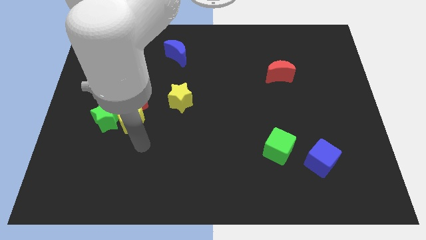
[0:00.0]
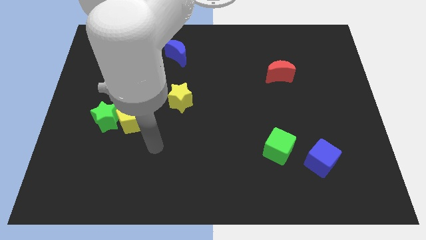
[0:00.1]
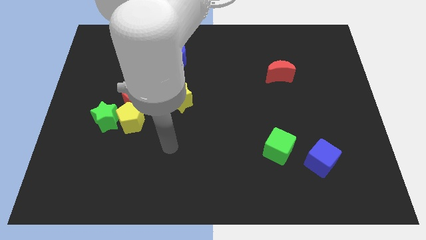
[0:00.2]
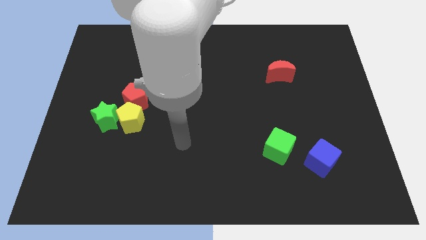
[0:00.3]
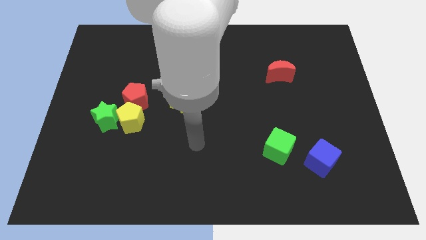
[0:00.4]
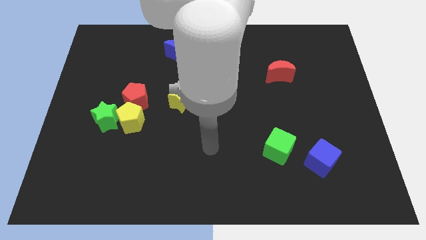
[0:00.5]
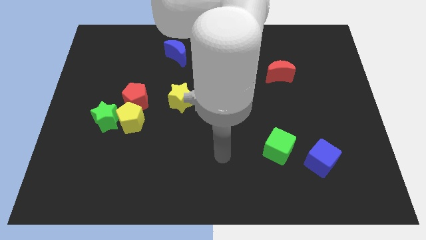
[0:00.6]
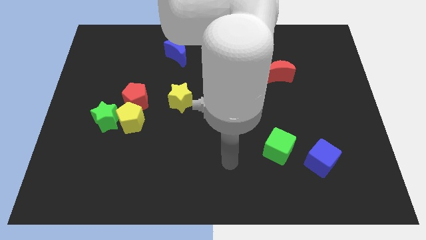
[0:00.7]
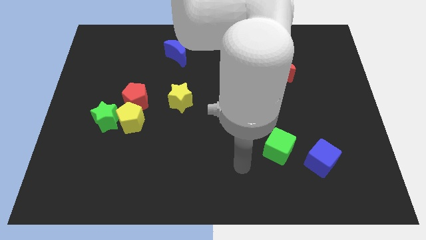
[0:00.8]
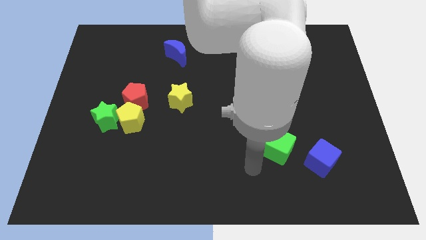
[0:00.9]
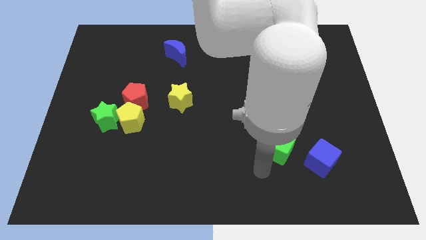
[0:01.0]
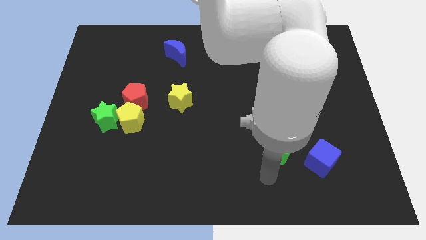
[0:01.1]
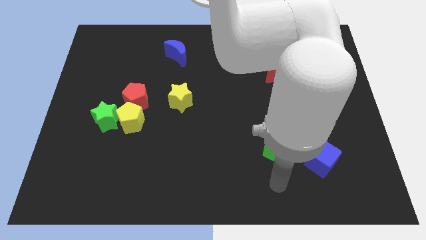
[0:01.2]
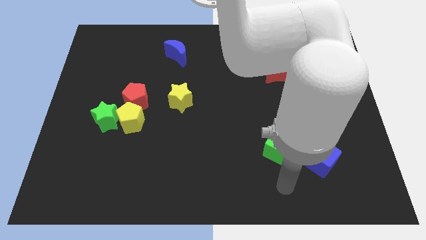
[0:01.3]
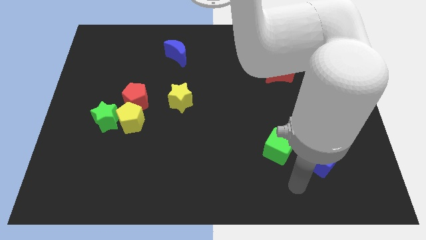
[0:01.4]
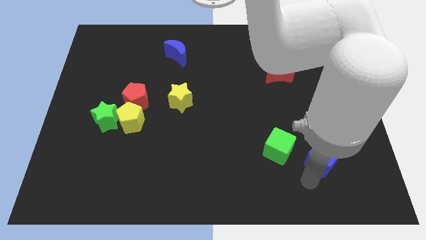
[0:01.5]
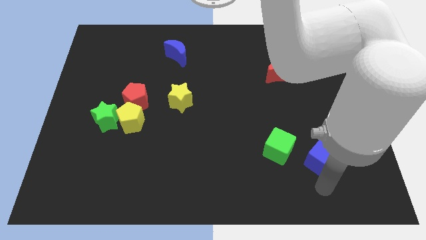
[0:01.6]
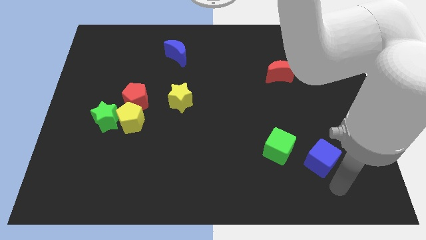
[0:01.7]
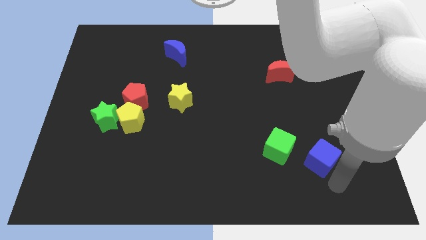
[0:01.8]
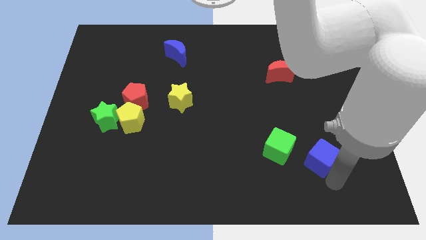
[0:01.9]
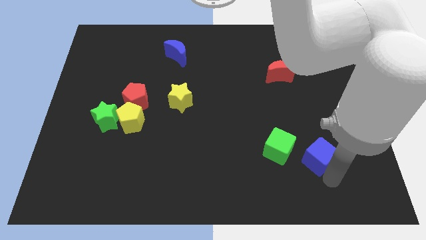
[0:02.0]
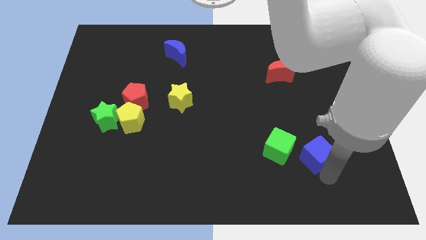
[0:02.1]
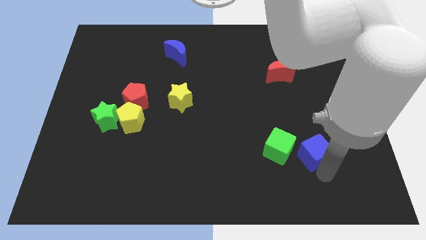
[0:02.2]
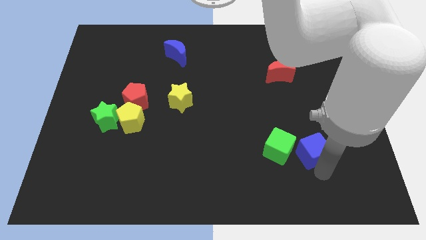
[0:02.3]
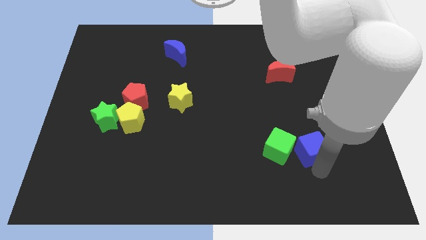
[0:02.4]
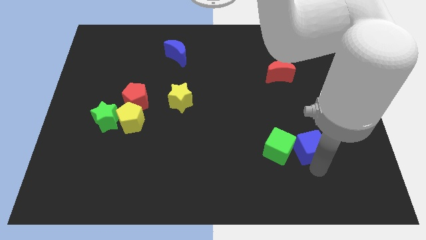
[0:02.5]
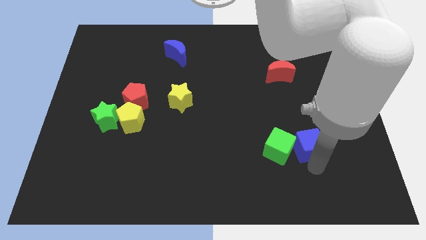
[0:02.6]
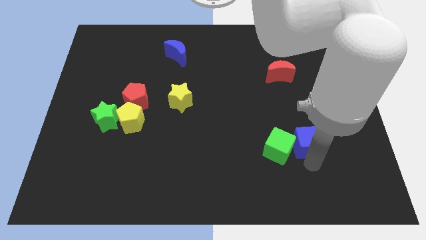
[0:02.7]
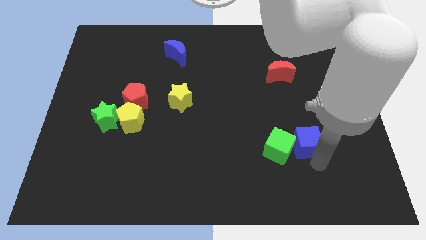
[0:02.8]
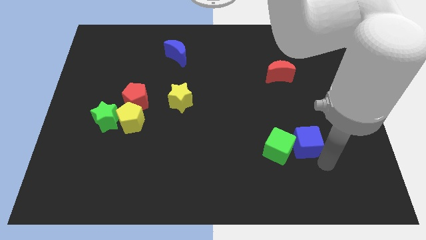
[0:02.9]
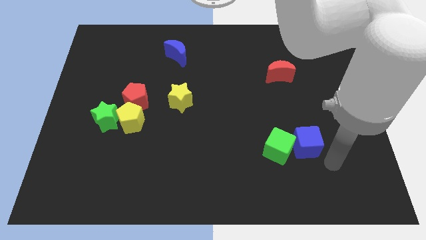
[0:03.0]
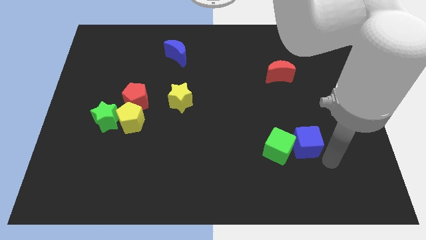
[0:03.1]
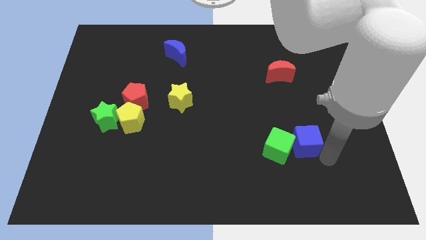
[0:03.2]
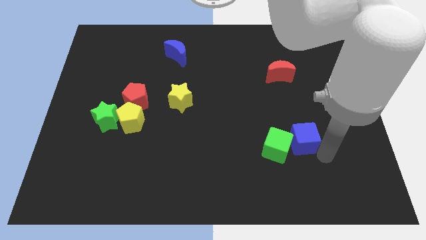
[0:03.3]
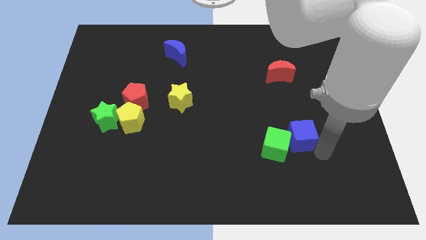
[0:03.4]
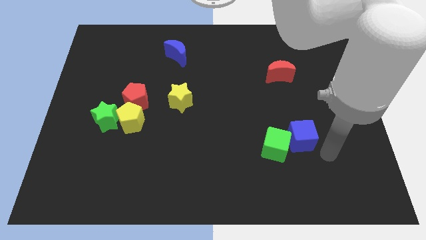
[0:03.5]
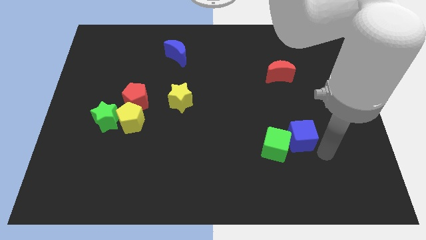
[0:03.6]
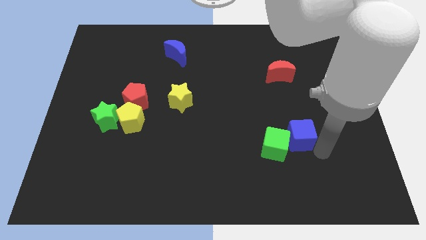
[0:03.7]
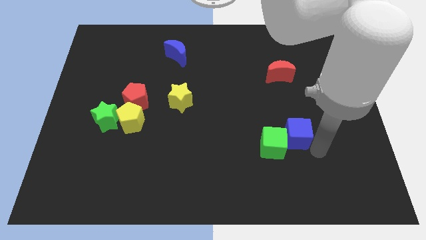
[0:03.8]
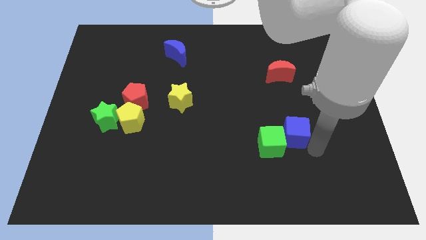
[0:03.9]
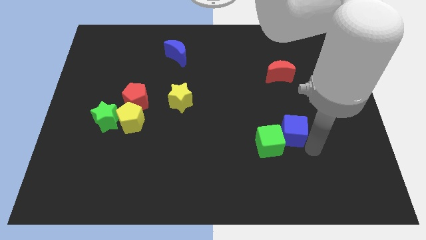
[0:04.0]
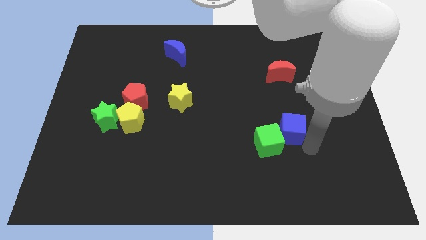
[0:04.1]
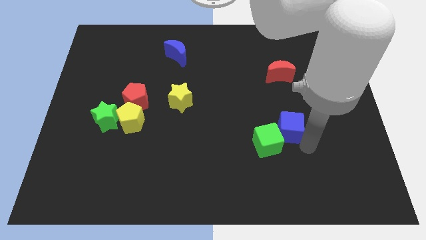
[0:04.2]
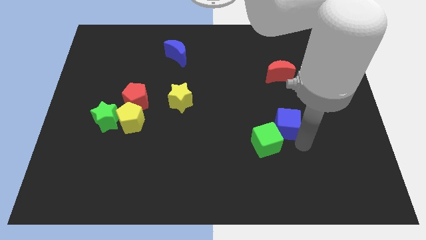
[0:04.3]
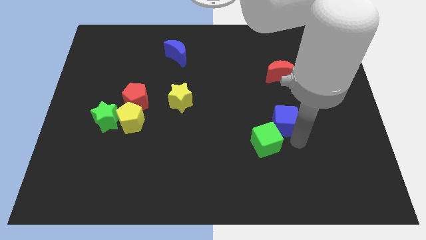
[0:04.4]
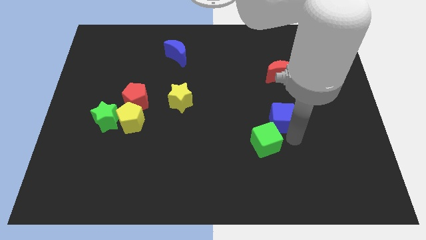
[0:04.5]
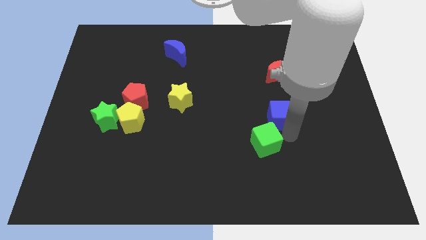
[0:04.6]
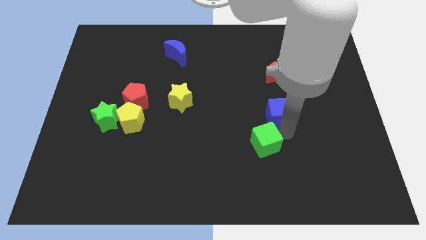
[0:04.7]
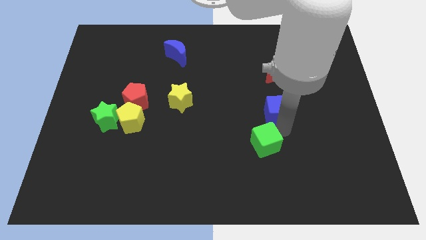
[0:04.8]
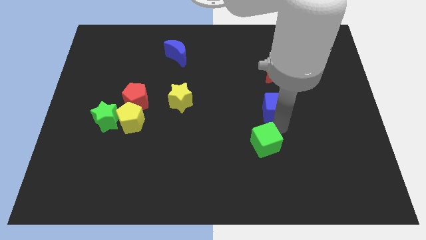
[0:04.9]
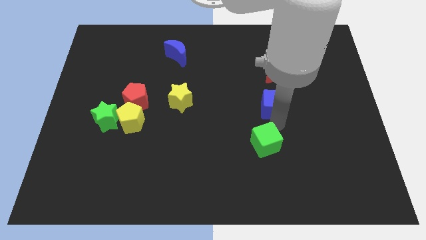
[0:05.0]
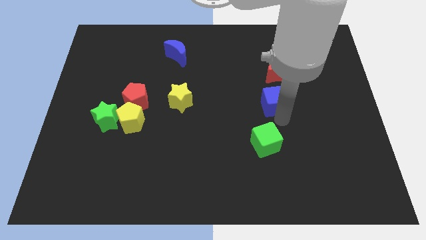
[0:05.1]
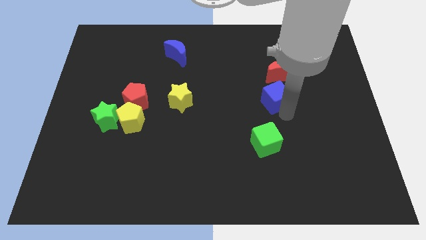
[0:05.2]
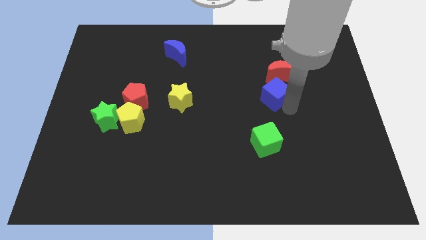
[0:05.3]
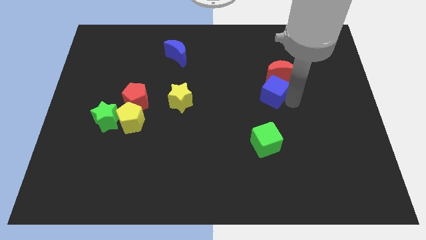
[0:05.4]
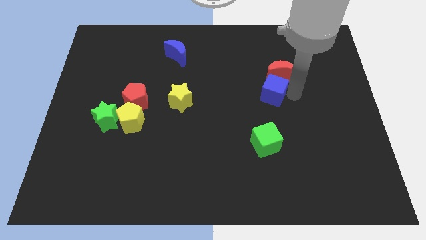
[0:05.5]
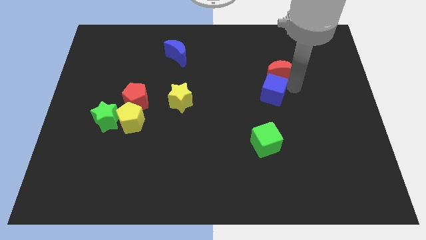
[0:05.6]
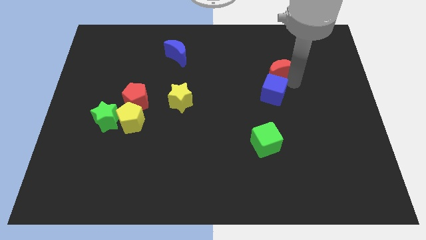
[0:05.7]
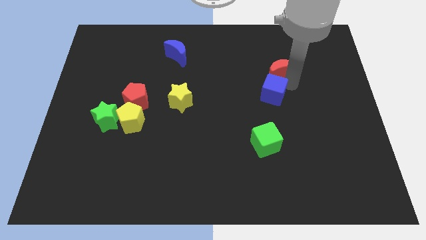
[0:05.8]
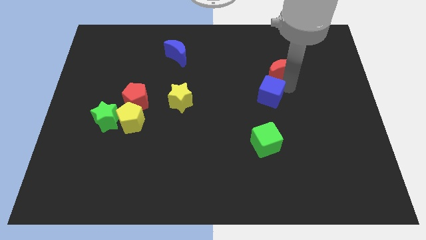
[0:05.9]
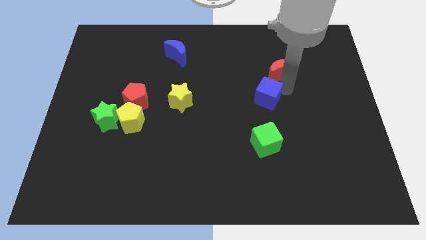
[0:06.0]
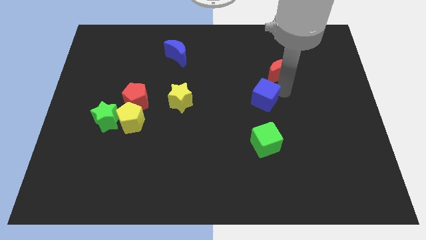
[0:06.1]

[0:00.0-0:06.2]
move the blue cube to the middle

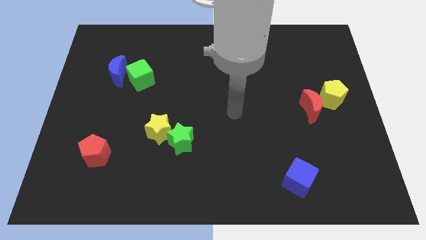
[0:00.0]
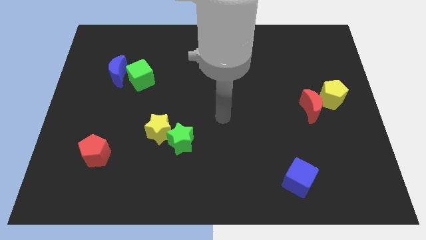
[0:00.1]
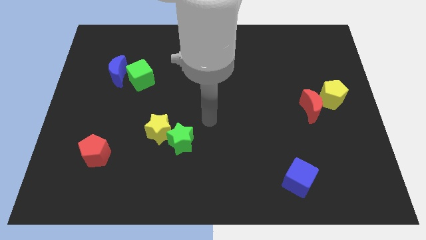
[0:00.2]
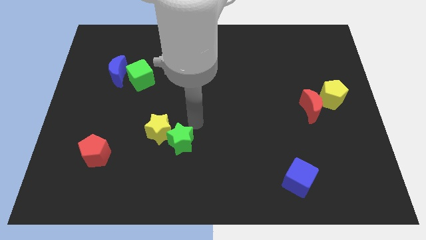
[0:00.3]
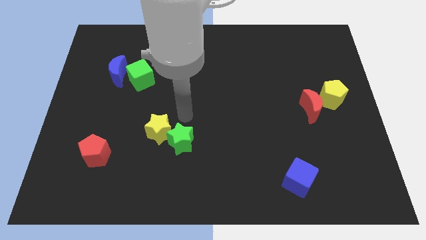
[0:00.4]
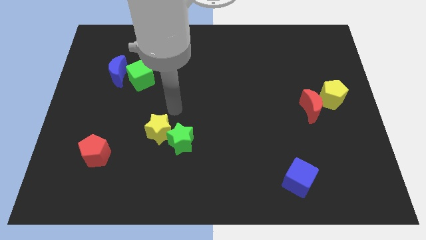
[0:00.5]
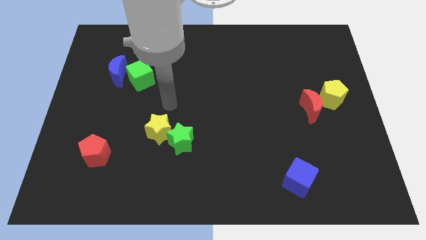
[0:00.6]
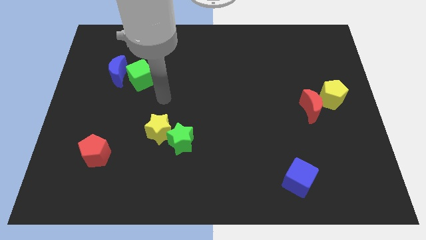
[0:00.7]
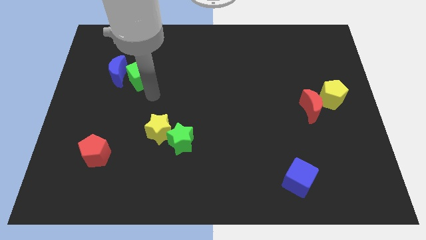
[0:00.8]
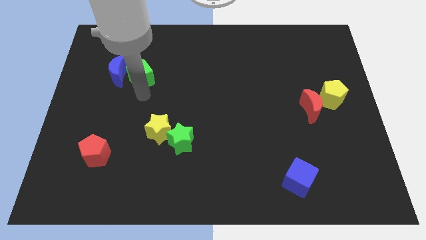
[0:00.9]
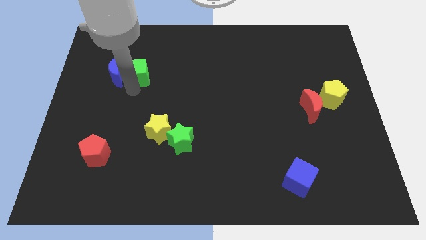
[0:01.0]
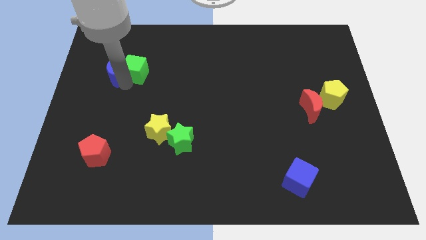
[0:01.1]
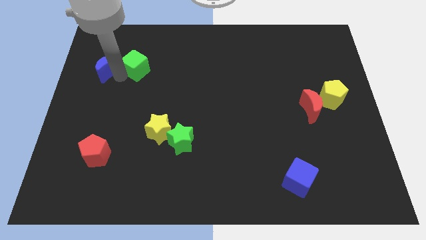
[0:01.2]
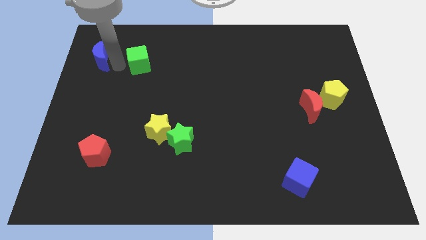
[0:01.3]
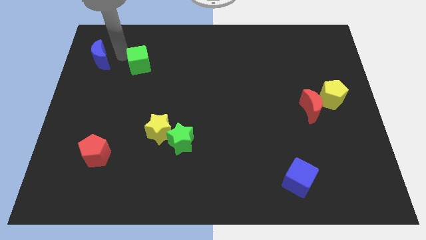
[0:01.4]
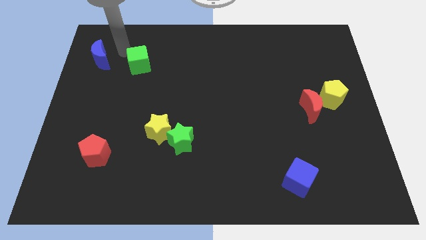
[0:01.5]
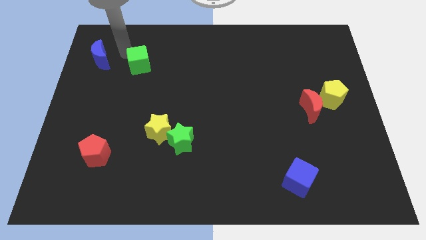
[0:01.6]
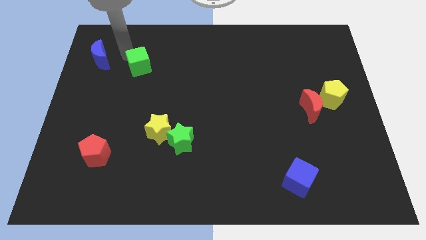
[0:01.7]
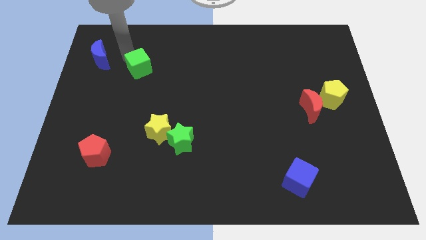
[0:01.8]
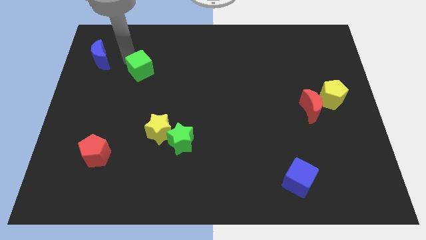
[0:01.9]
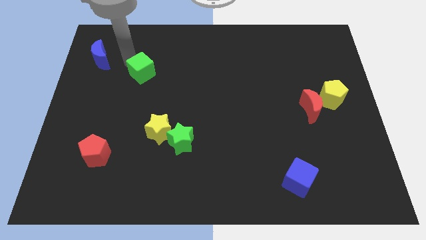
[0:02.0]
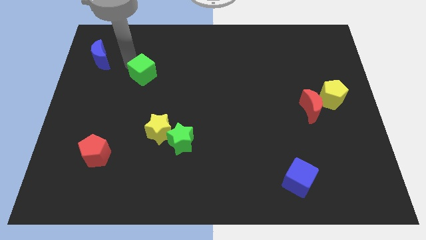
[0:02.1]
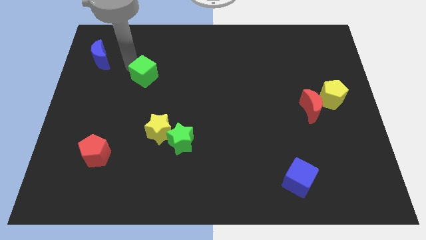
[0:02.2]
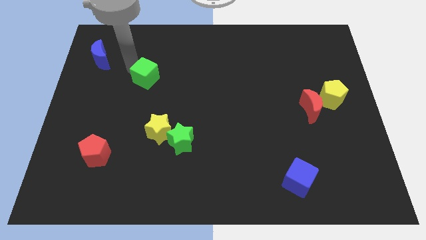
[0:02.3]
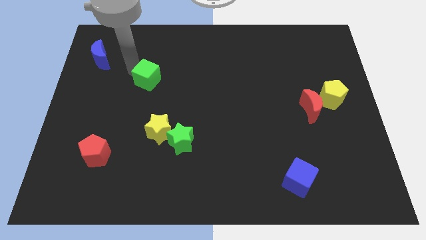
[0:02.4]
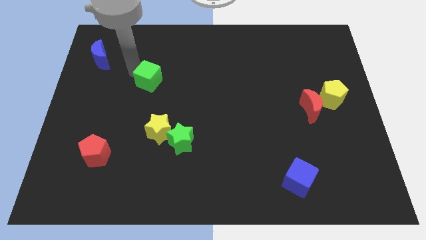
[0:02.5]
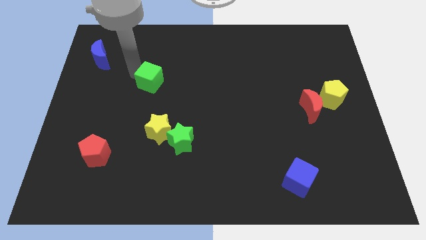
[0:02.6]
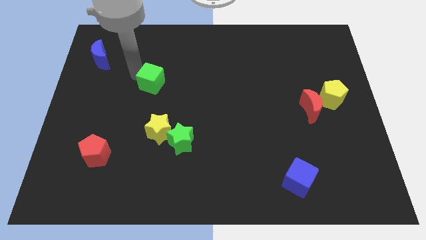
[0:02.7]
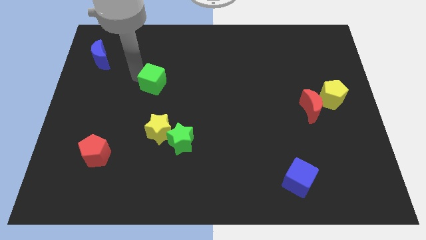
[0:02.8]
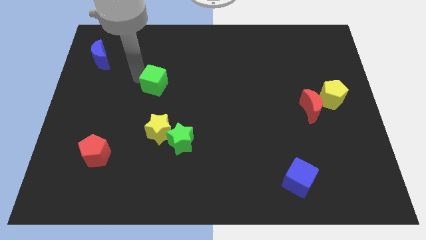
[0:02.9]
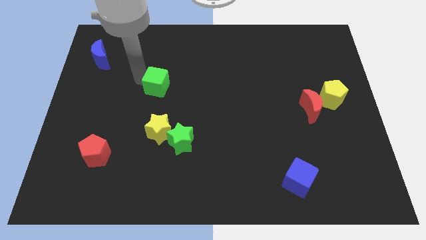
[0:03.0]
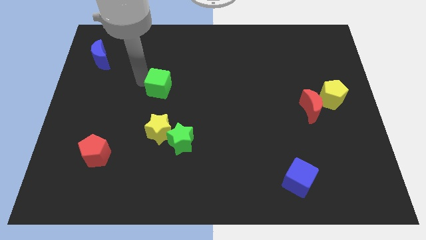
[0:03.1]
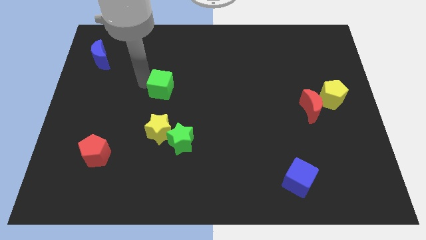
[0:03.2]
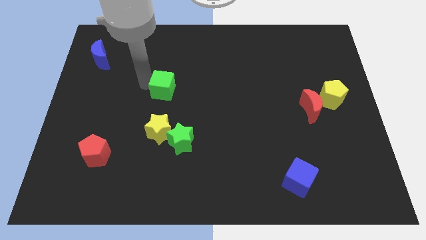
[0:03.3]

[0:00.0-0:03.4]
put the green cube to the center of the board
